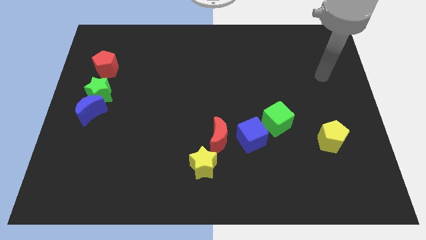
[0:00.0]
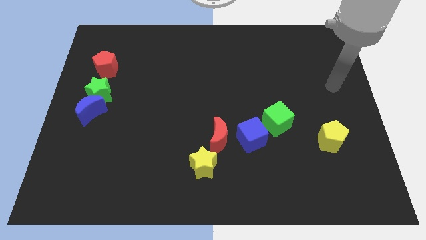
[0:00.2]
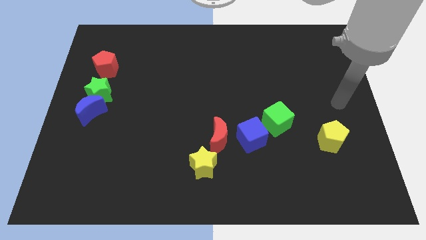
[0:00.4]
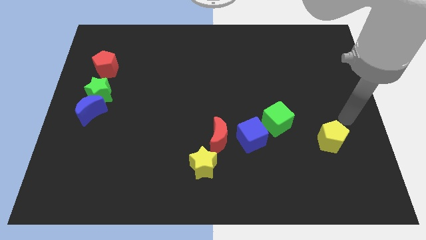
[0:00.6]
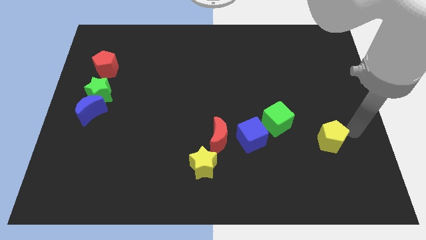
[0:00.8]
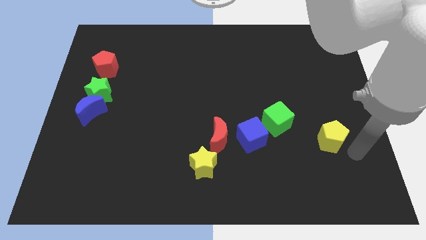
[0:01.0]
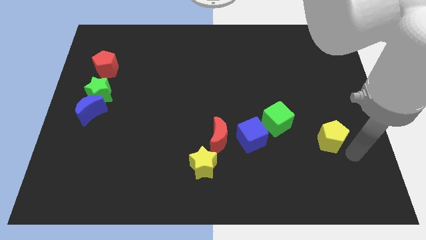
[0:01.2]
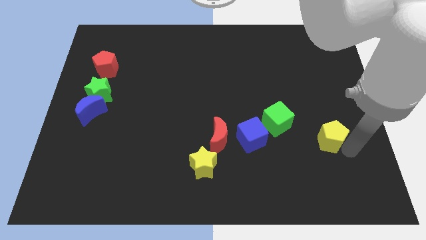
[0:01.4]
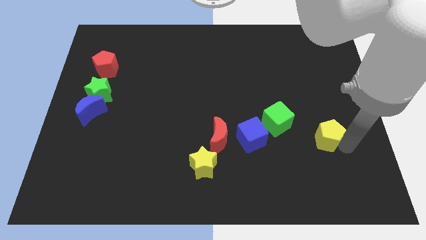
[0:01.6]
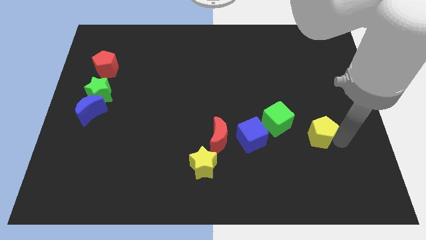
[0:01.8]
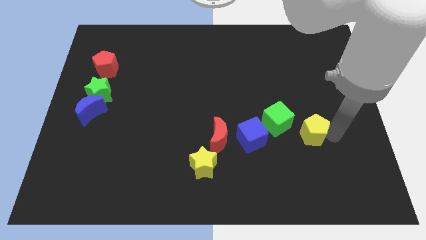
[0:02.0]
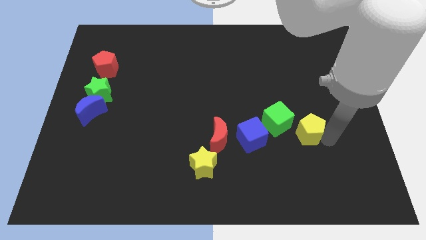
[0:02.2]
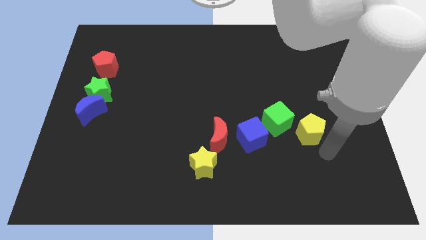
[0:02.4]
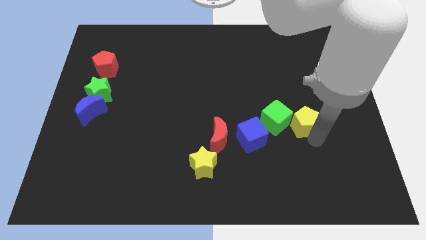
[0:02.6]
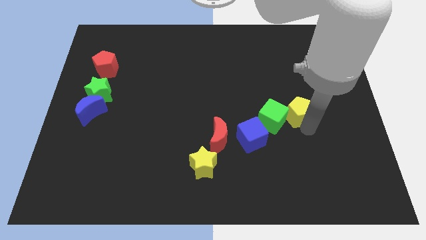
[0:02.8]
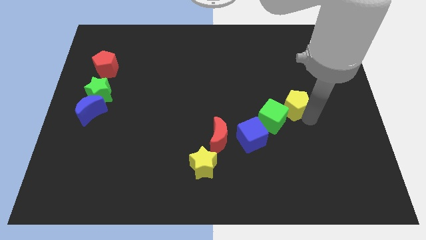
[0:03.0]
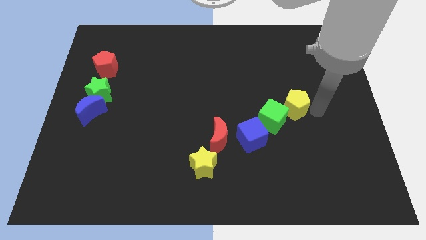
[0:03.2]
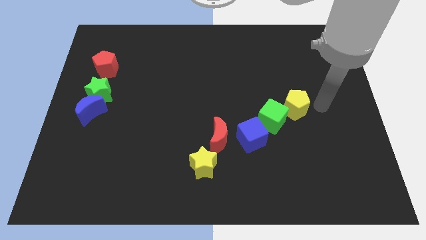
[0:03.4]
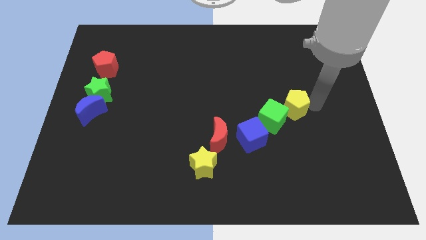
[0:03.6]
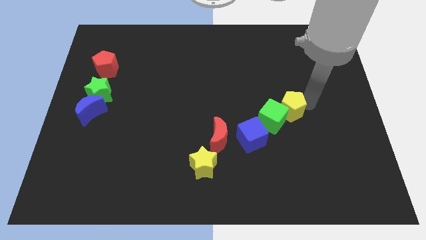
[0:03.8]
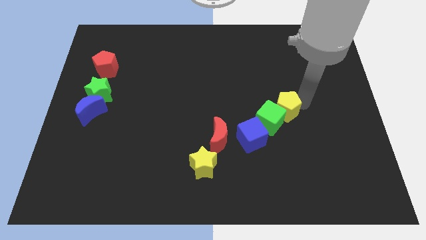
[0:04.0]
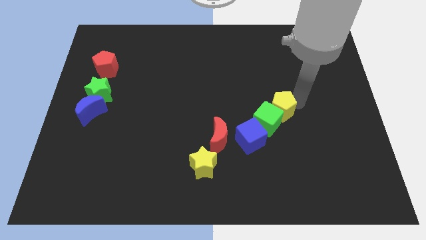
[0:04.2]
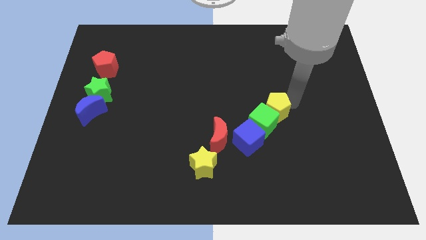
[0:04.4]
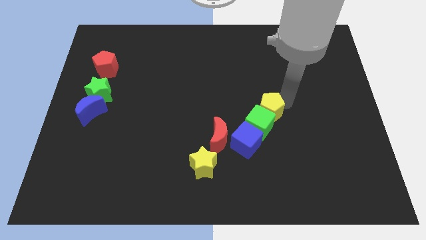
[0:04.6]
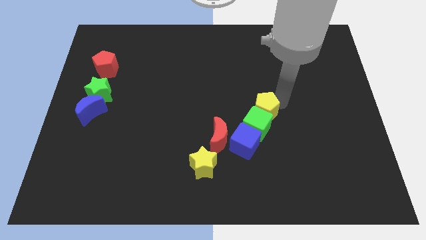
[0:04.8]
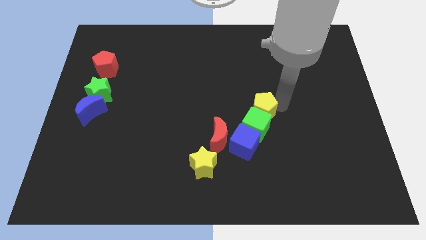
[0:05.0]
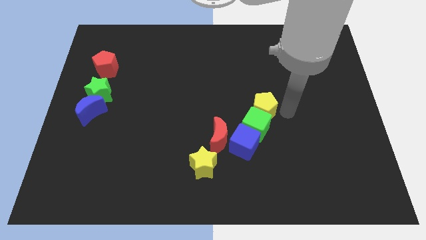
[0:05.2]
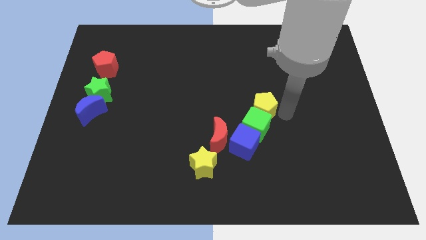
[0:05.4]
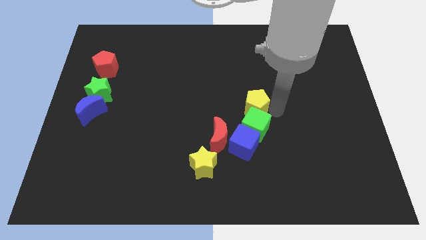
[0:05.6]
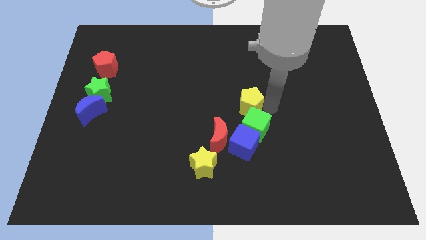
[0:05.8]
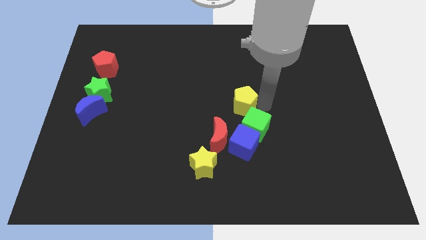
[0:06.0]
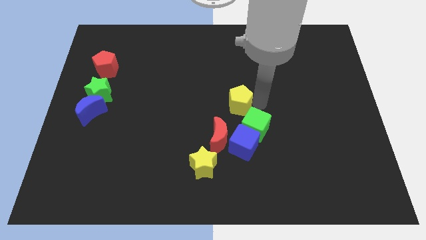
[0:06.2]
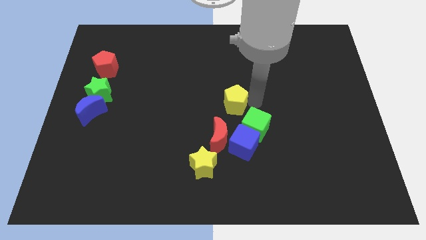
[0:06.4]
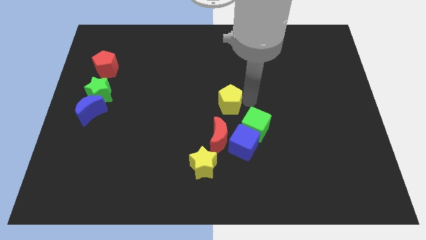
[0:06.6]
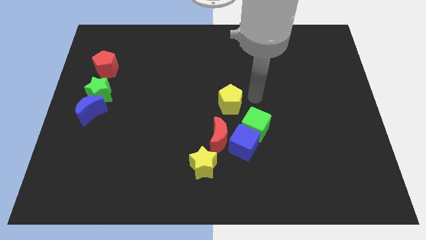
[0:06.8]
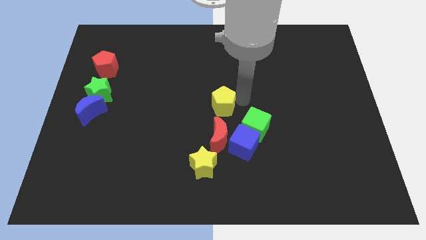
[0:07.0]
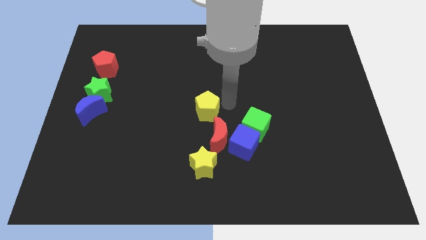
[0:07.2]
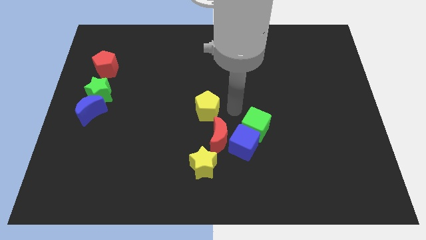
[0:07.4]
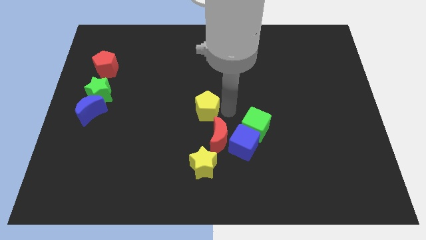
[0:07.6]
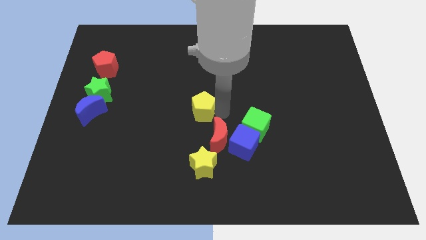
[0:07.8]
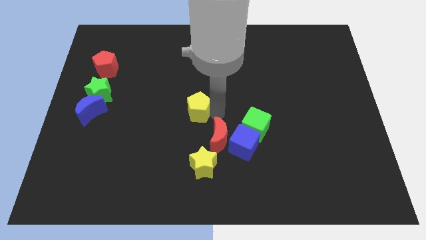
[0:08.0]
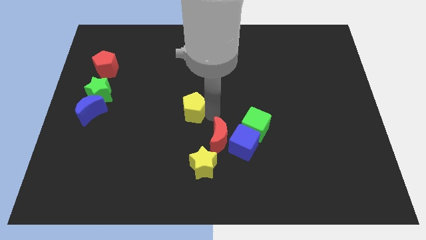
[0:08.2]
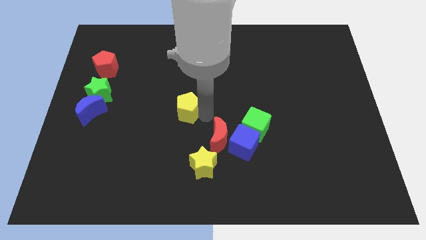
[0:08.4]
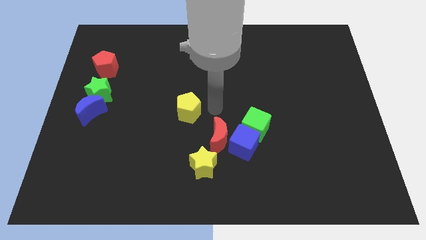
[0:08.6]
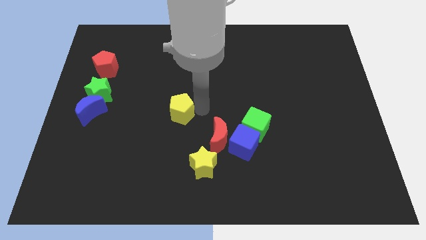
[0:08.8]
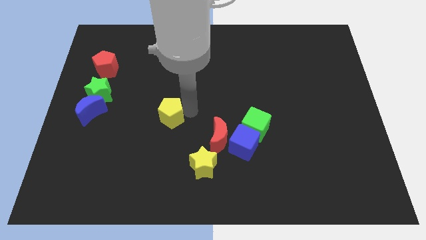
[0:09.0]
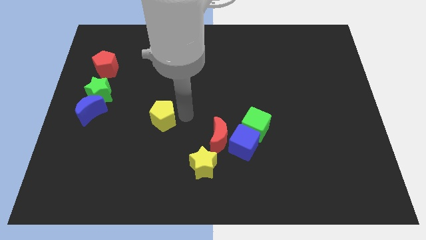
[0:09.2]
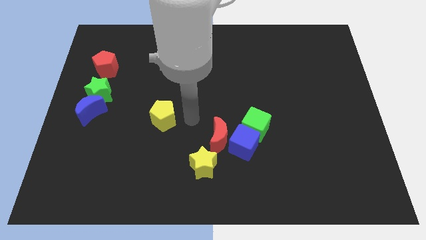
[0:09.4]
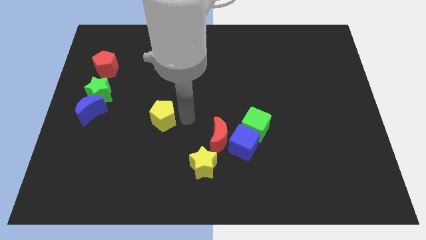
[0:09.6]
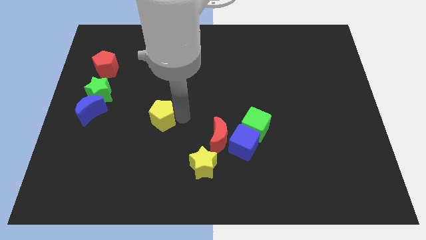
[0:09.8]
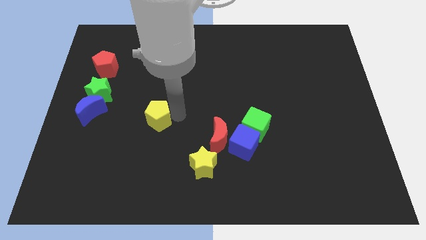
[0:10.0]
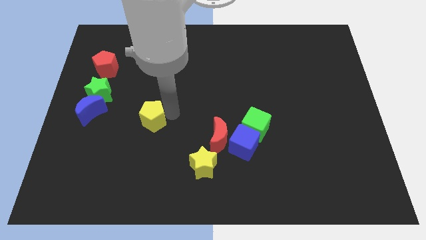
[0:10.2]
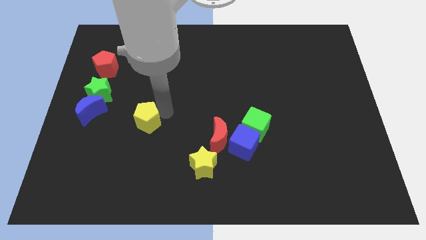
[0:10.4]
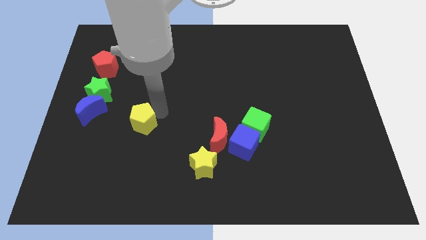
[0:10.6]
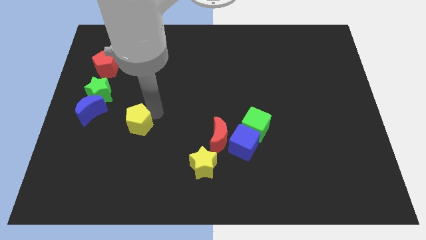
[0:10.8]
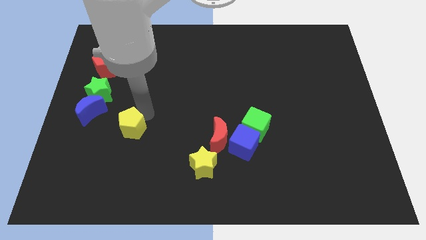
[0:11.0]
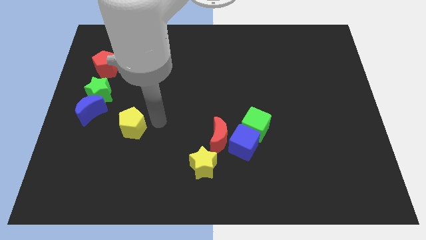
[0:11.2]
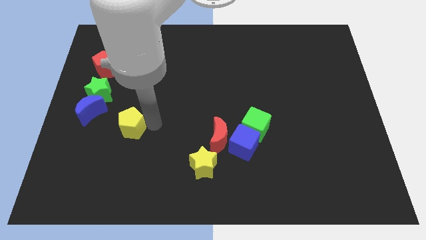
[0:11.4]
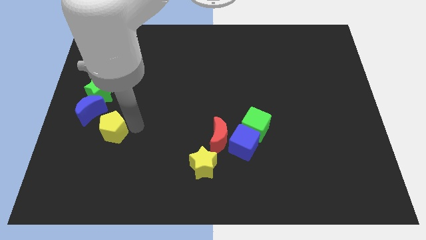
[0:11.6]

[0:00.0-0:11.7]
slide the yellow pentagon below the green star

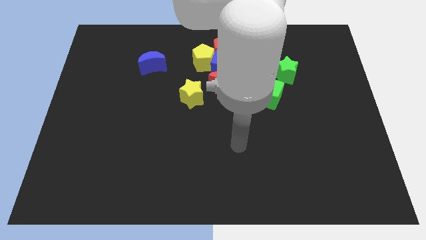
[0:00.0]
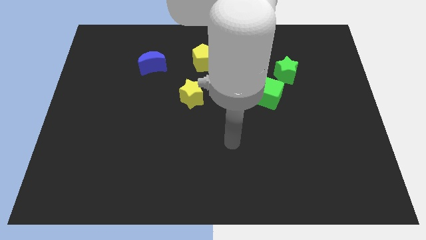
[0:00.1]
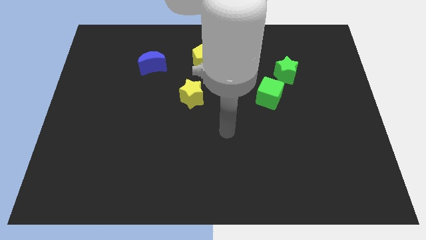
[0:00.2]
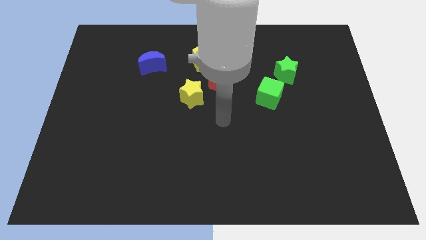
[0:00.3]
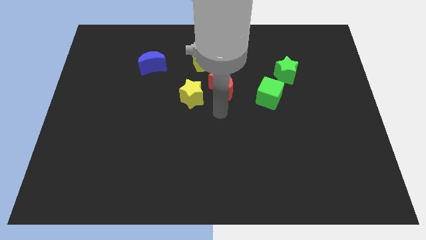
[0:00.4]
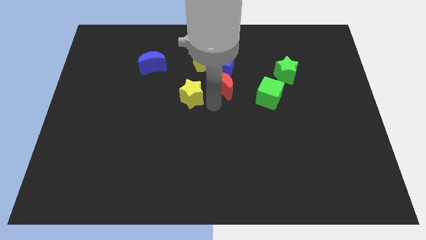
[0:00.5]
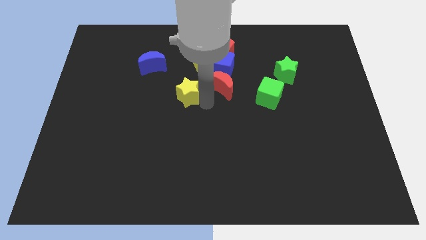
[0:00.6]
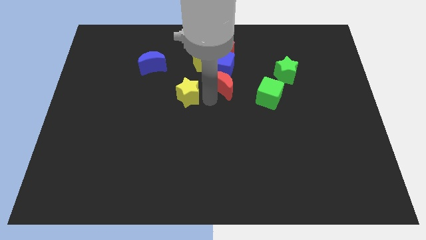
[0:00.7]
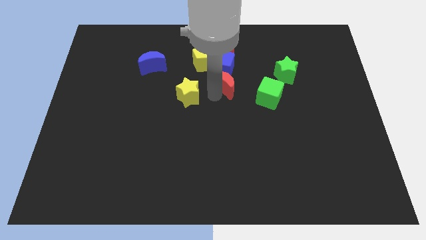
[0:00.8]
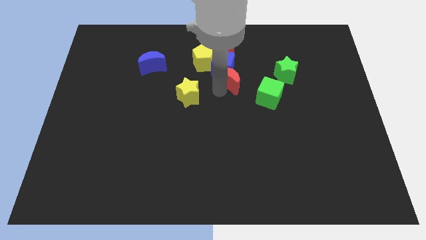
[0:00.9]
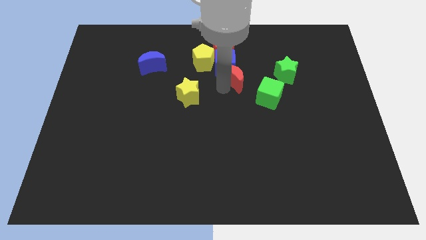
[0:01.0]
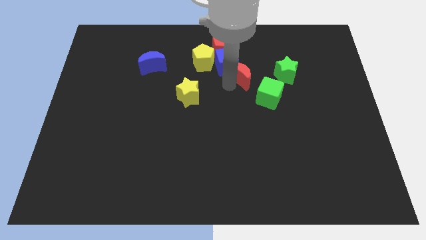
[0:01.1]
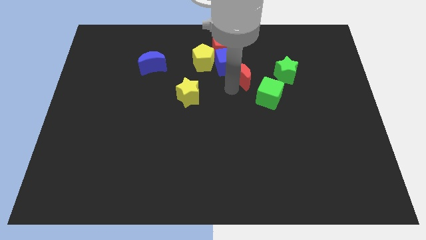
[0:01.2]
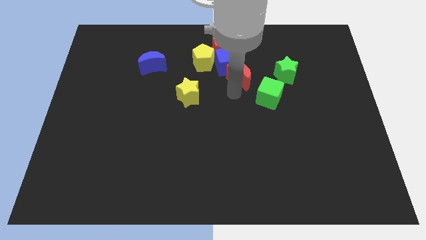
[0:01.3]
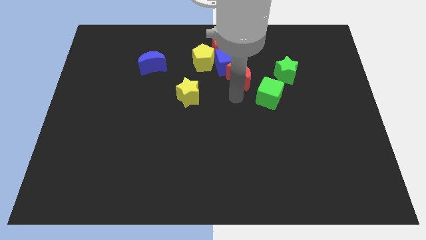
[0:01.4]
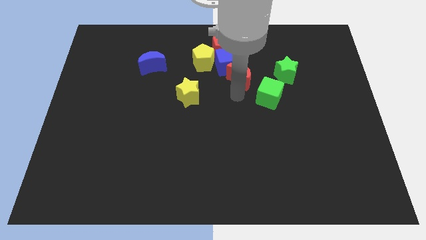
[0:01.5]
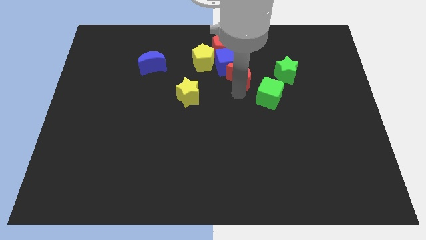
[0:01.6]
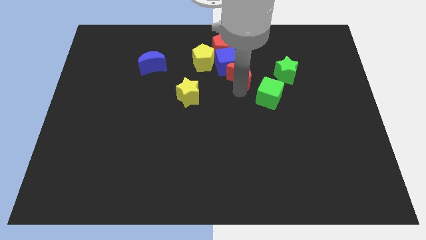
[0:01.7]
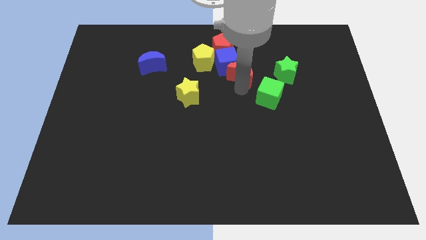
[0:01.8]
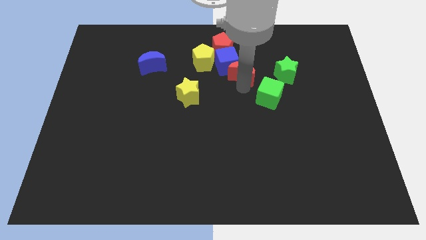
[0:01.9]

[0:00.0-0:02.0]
move the red moon to the right of the yellow pentagon

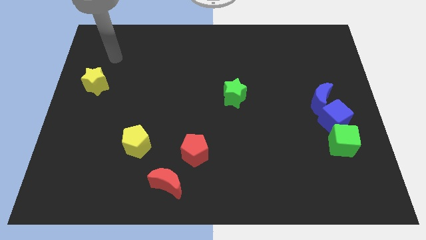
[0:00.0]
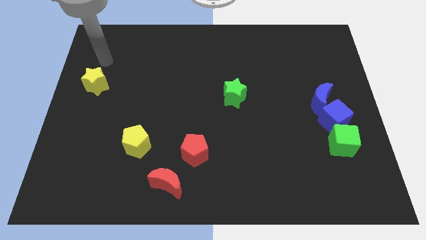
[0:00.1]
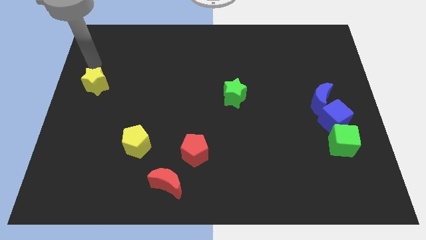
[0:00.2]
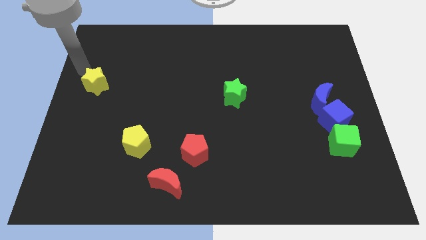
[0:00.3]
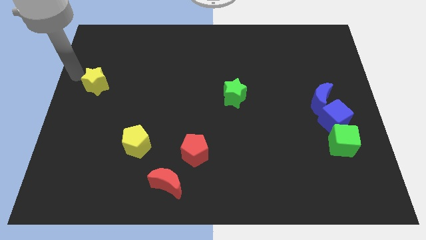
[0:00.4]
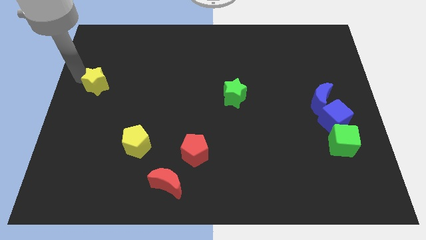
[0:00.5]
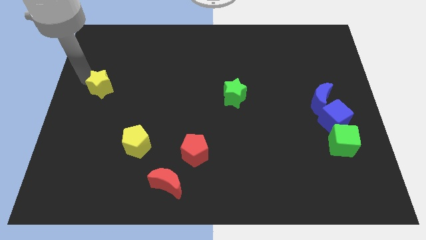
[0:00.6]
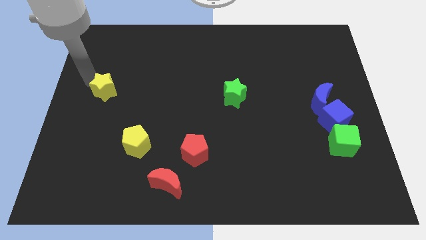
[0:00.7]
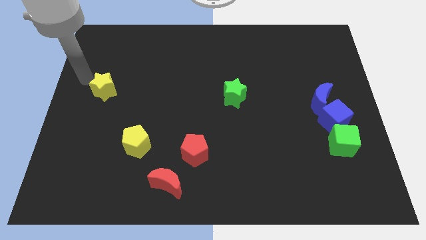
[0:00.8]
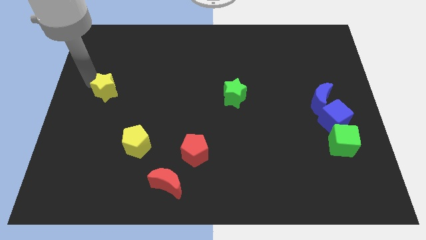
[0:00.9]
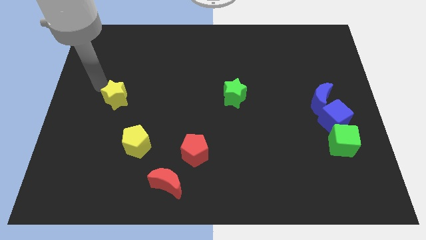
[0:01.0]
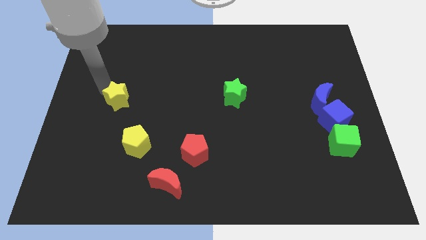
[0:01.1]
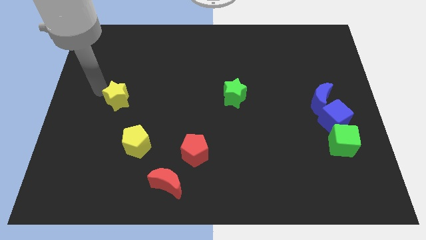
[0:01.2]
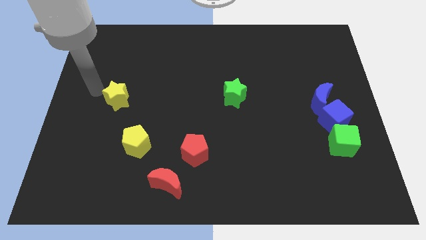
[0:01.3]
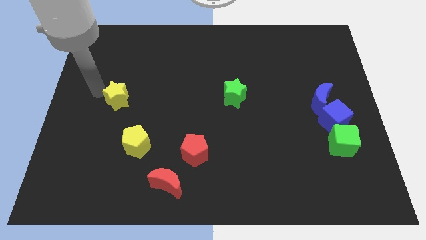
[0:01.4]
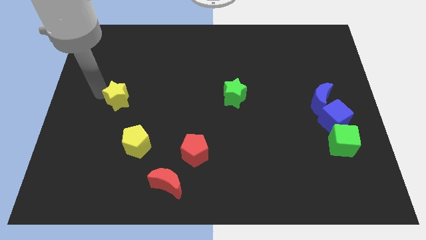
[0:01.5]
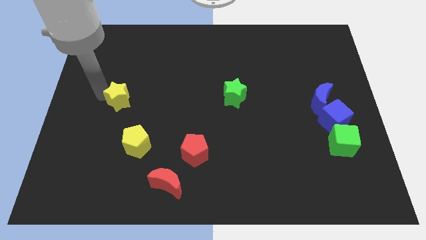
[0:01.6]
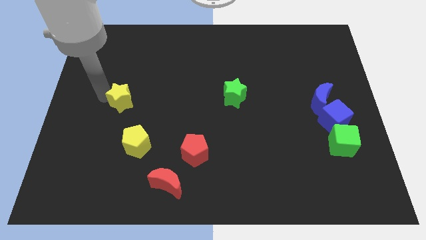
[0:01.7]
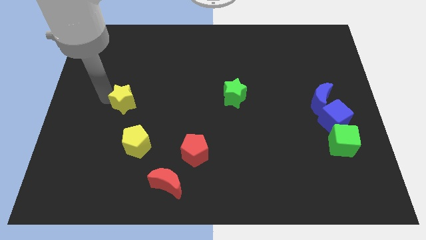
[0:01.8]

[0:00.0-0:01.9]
push the yellow star to the top of the yellow pentagon
